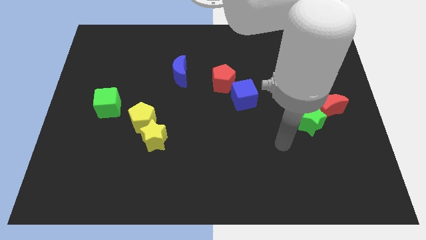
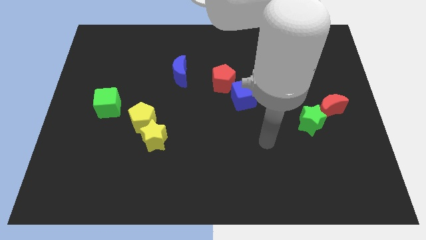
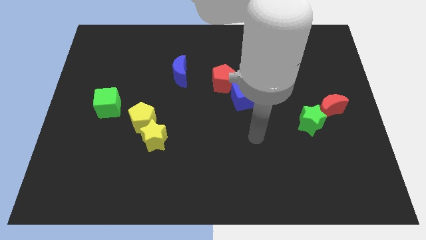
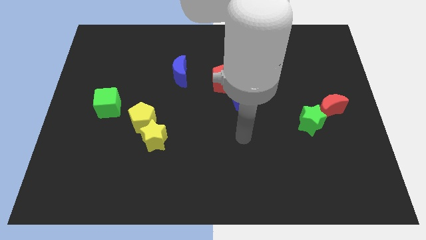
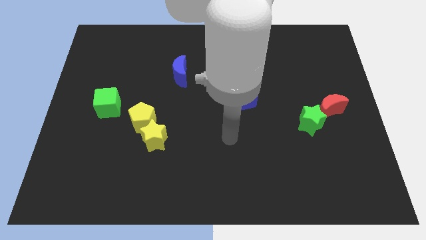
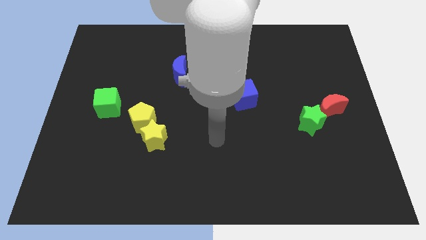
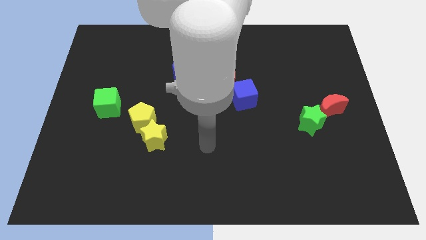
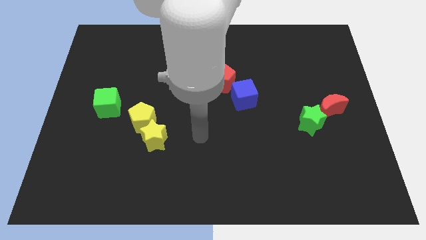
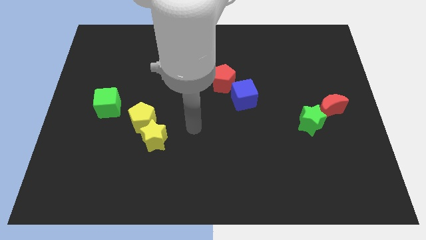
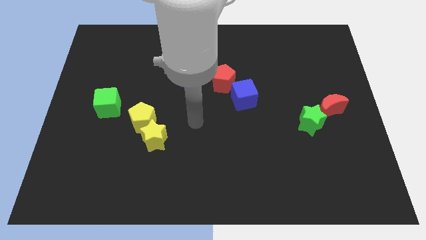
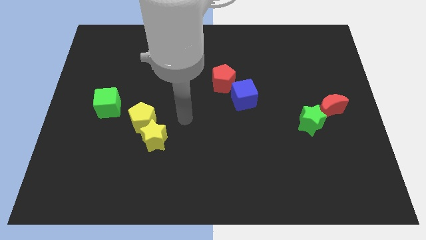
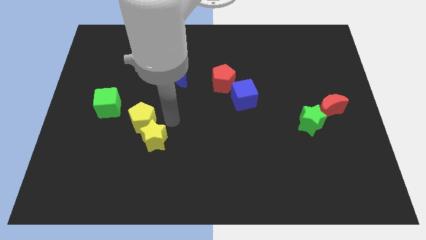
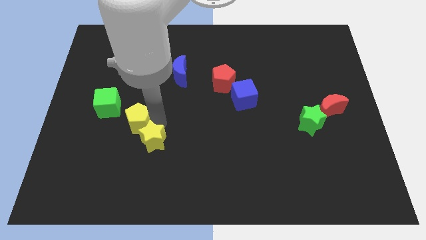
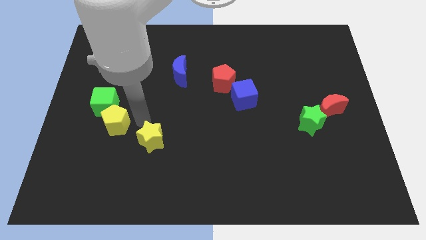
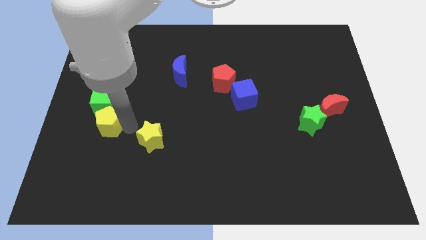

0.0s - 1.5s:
pull the yellow star apart from the yellow pentagon

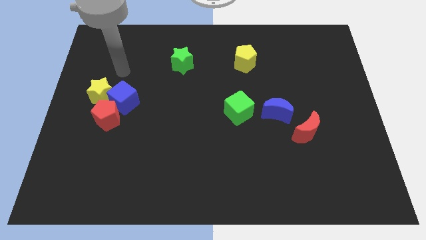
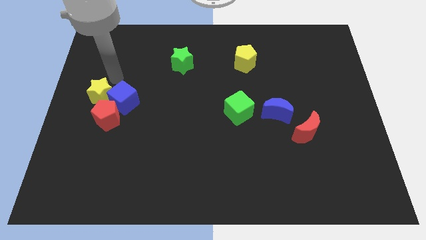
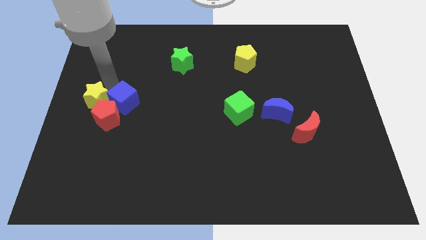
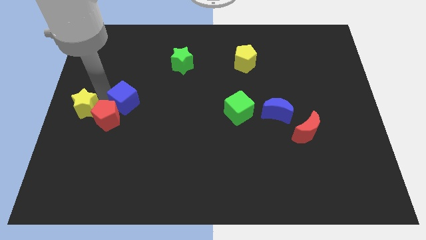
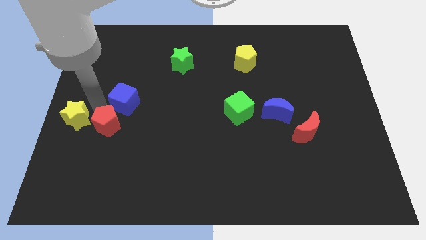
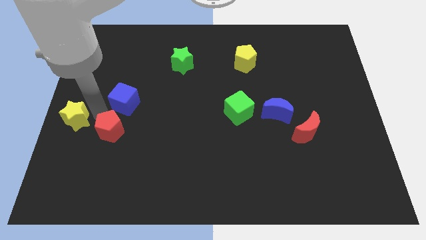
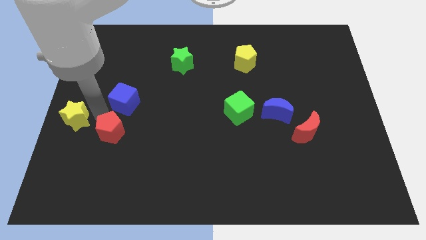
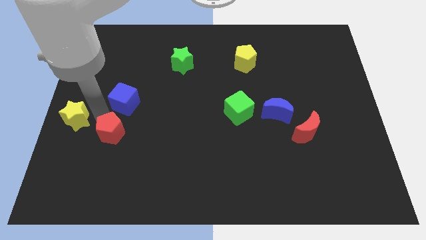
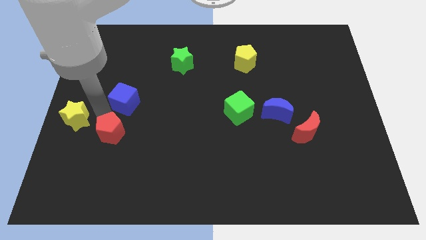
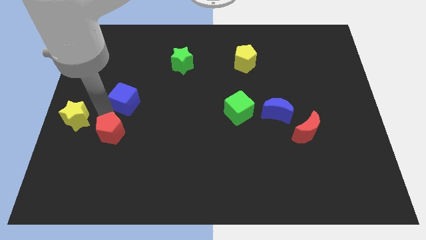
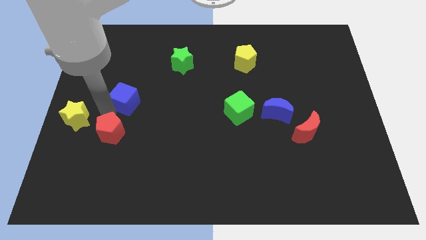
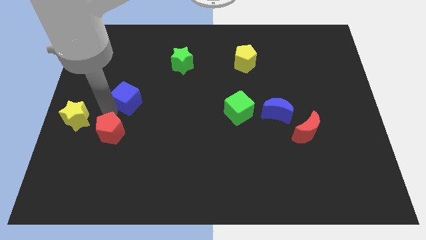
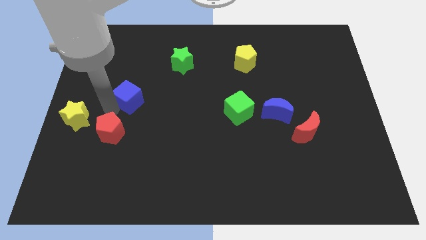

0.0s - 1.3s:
separate the blue cube from the yellow star and red pentagon

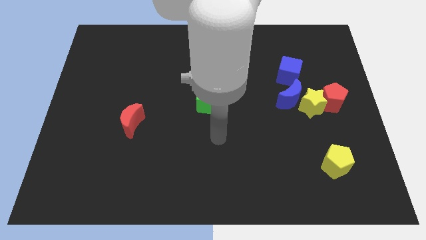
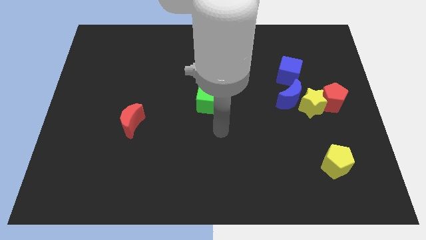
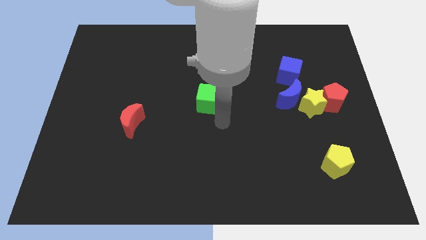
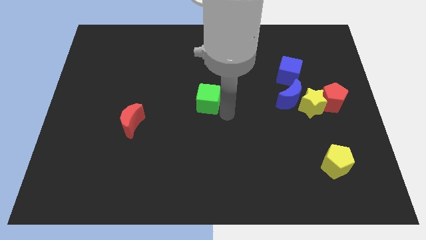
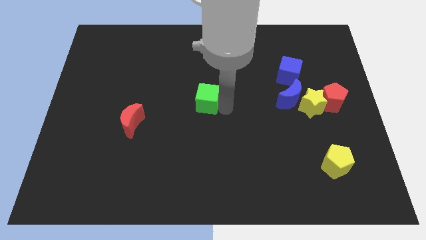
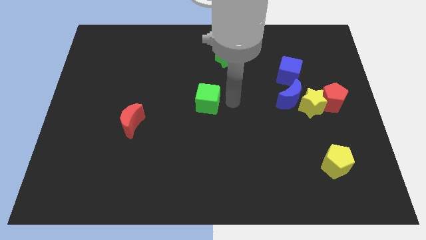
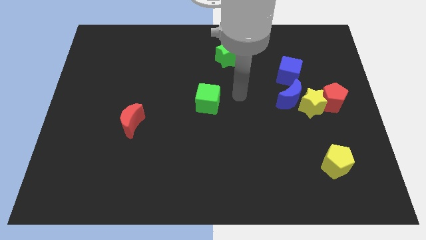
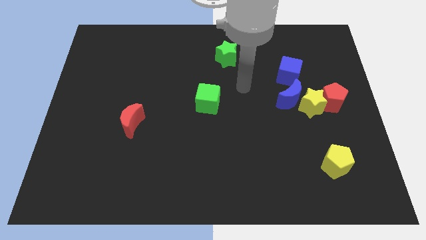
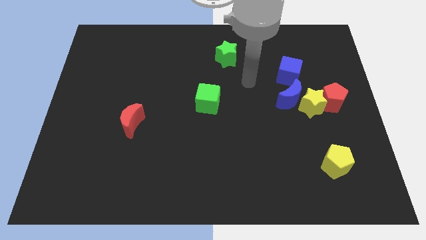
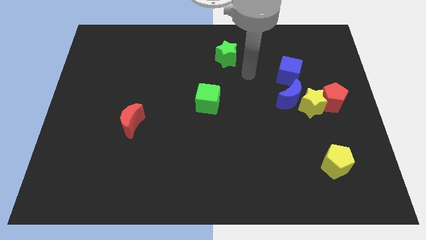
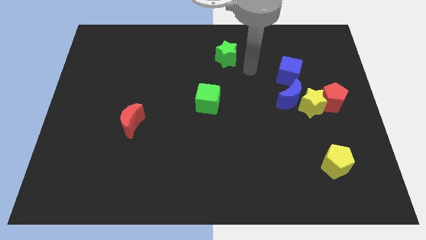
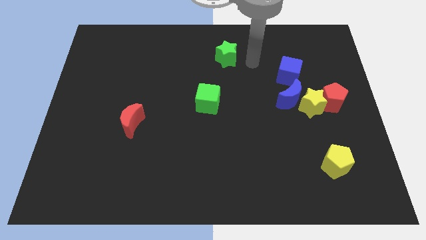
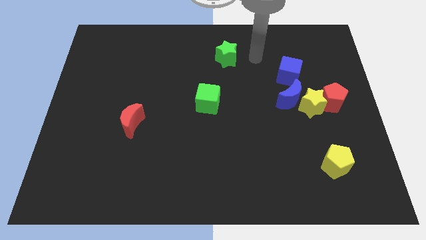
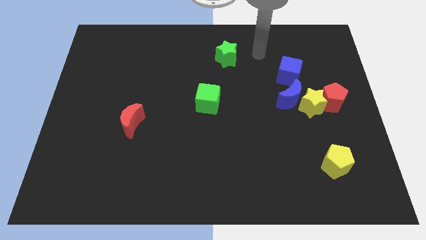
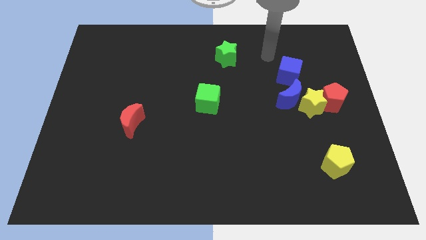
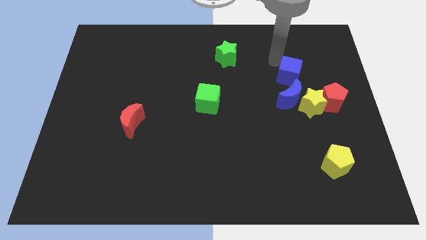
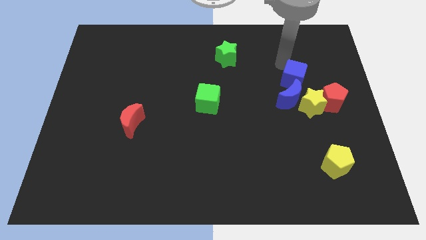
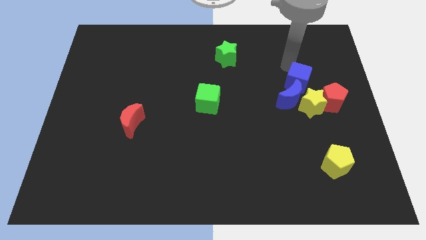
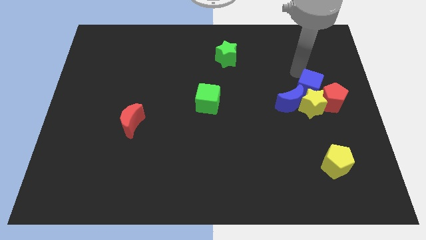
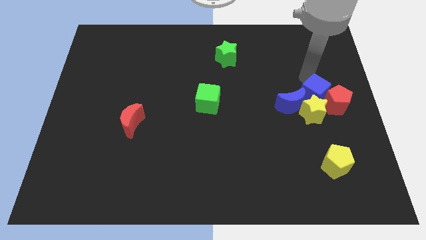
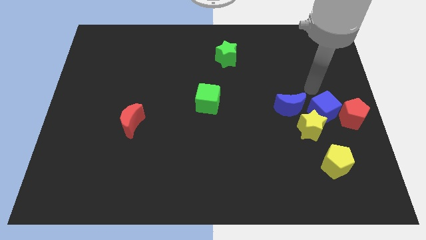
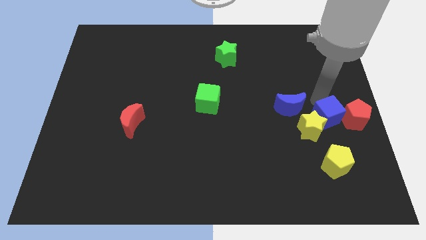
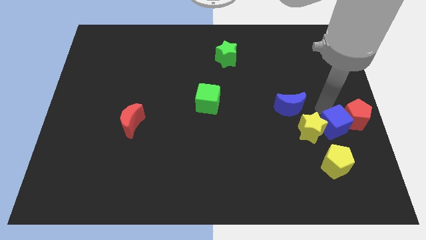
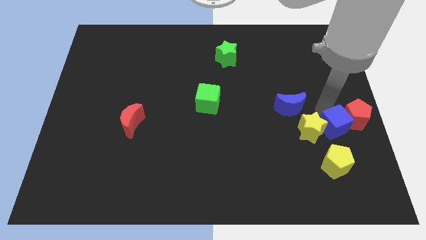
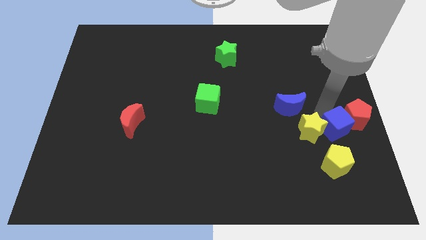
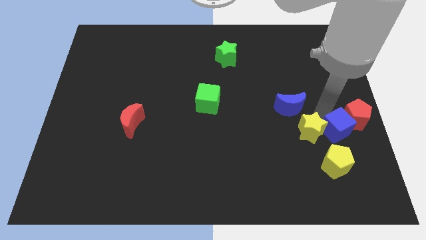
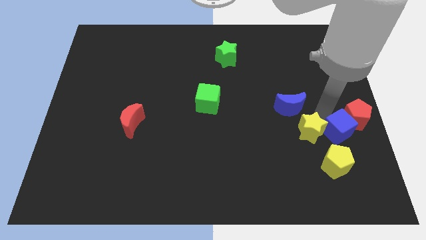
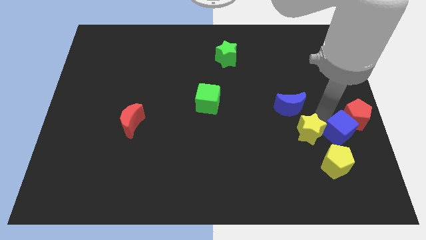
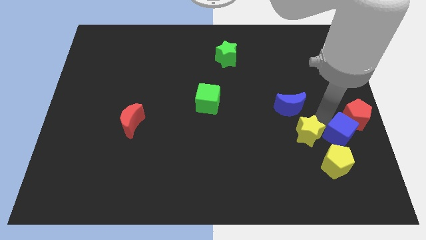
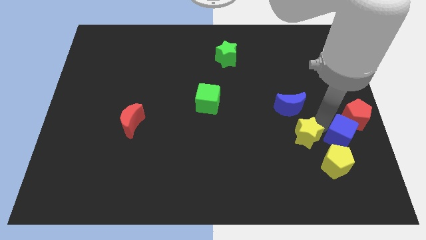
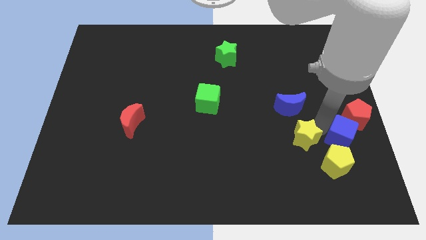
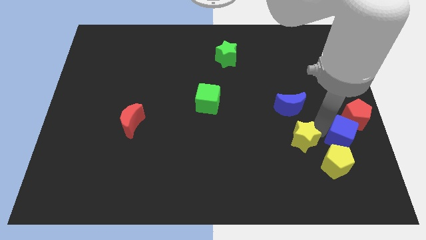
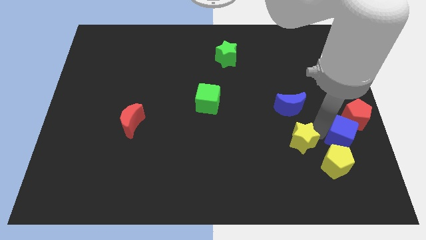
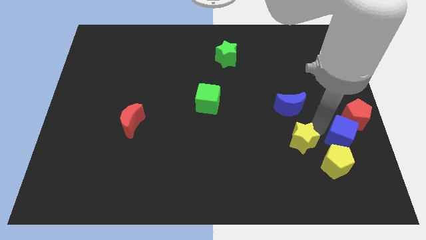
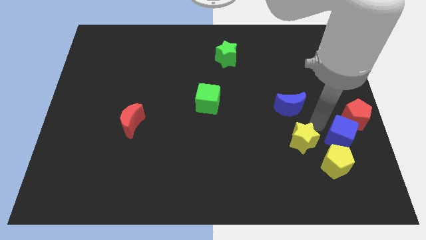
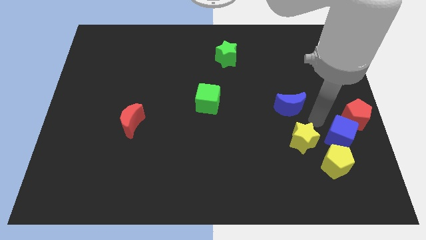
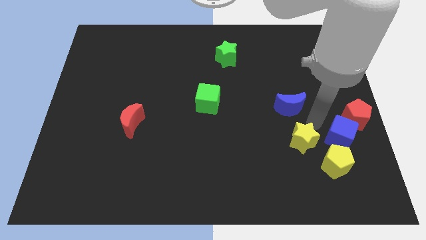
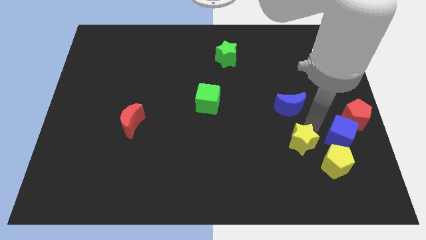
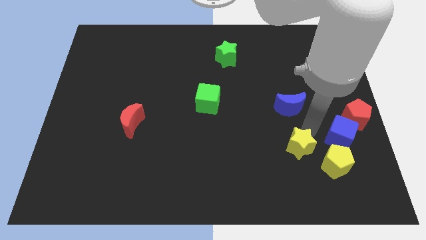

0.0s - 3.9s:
move the yellow star away from the blue moon and red pentagon

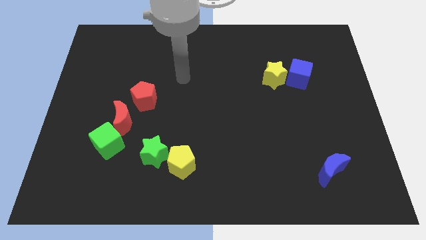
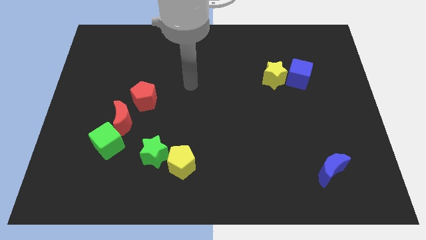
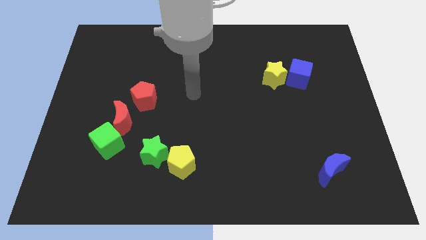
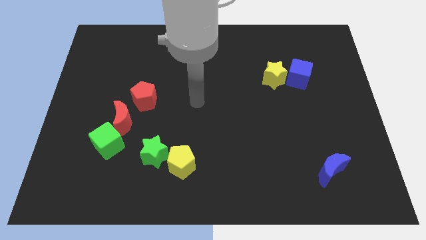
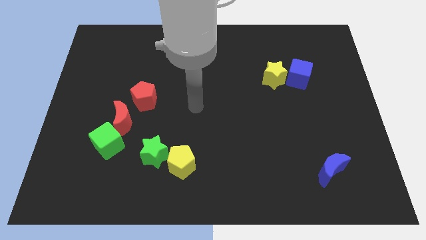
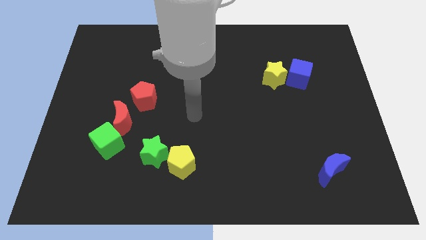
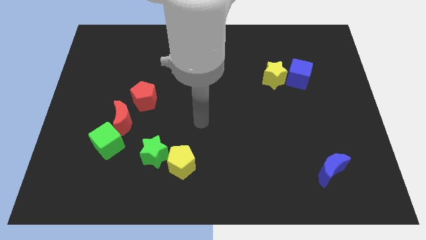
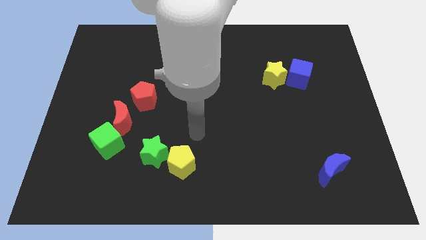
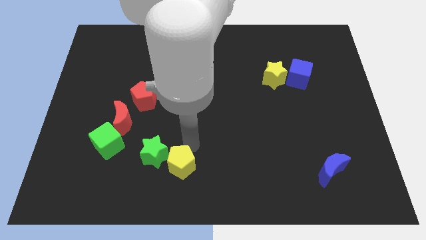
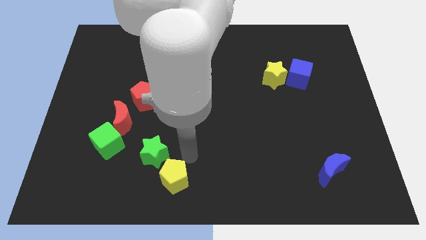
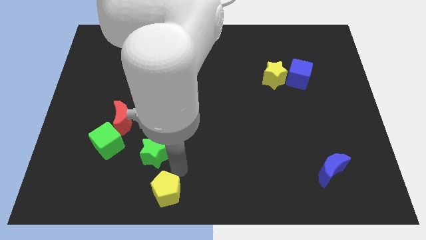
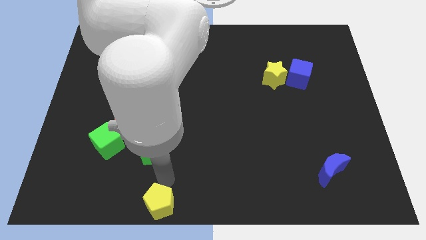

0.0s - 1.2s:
pull the green star apart from the yellow pentagon

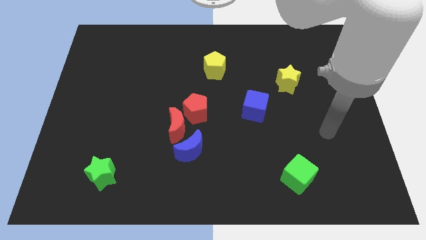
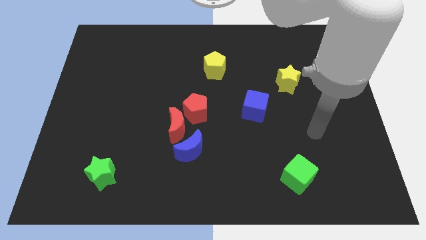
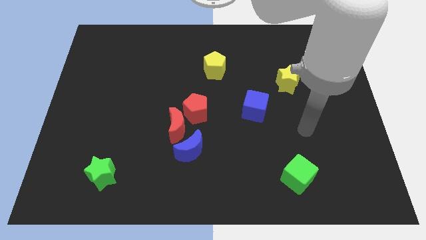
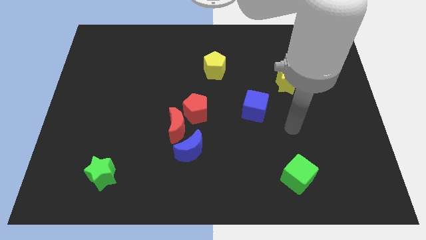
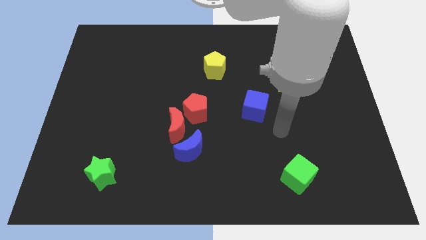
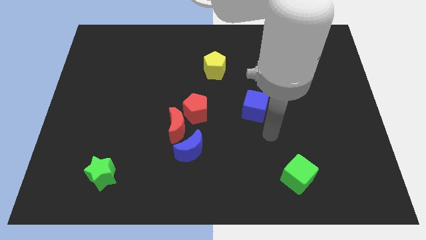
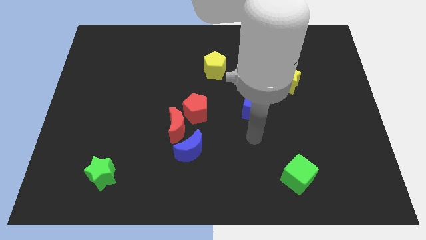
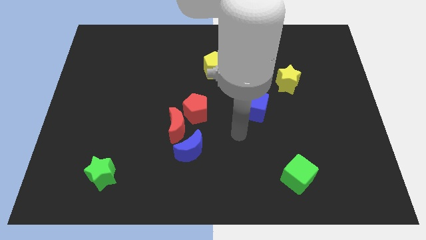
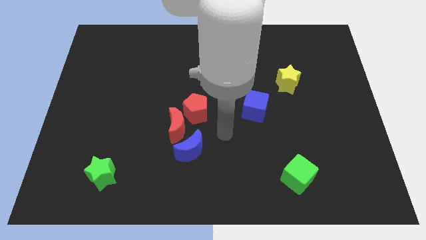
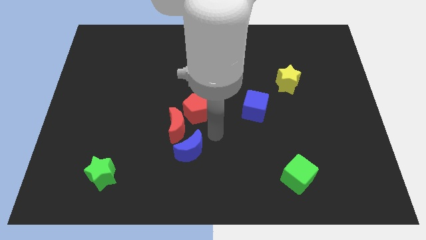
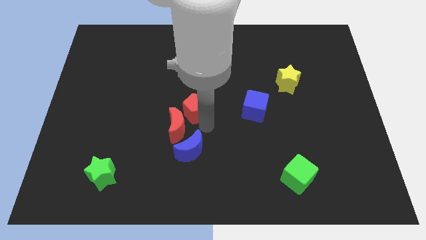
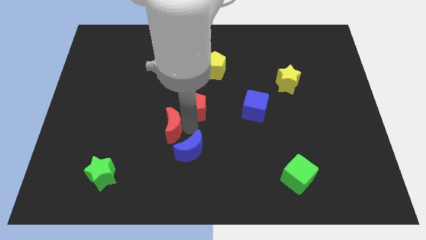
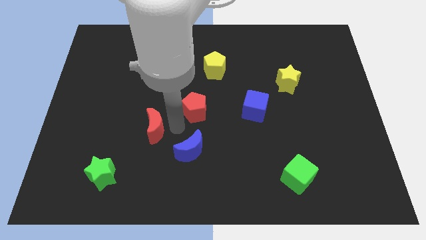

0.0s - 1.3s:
move the red pentagon away from the red moon
